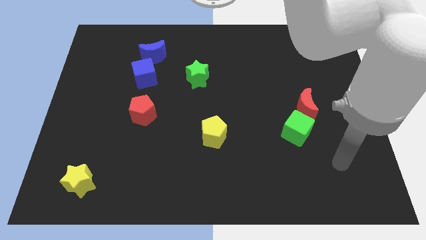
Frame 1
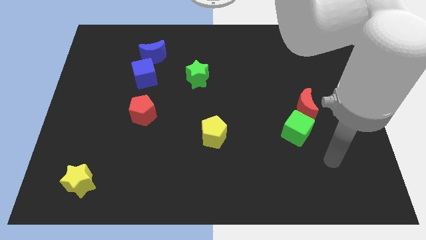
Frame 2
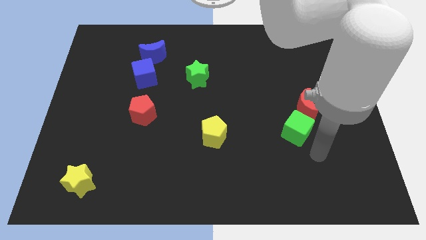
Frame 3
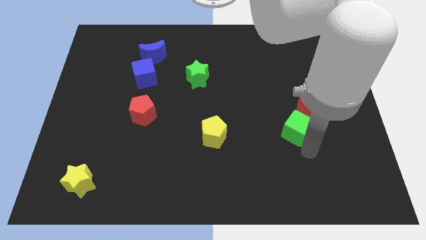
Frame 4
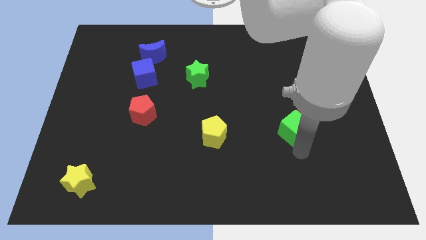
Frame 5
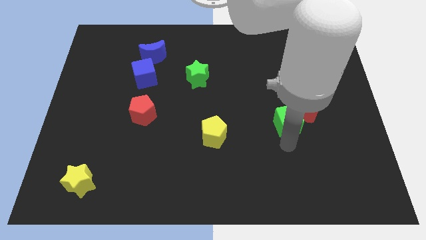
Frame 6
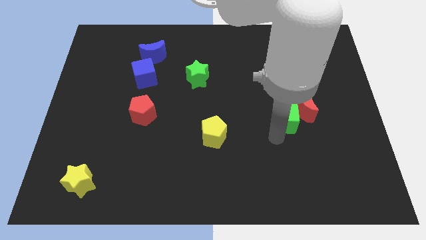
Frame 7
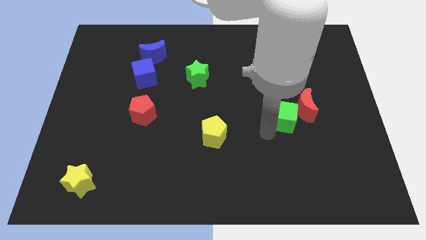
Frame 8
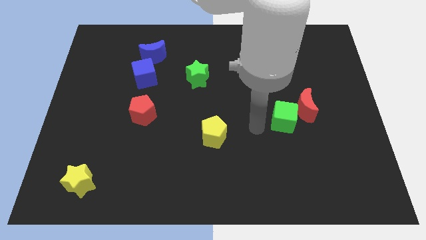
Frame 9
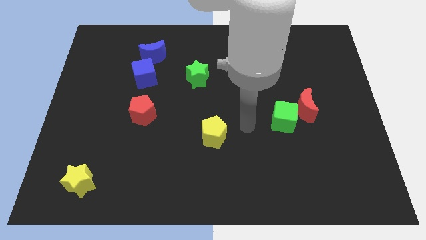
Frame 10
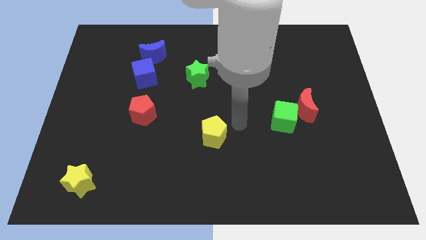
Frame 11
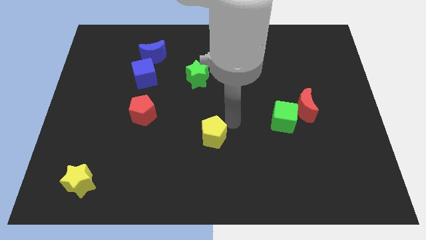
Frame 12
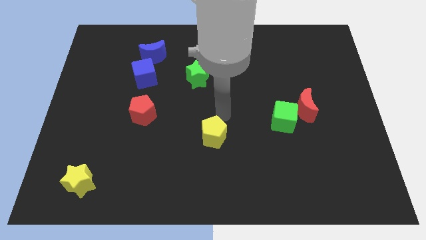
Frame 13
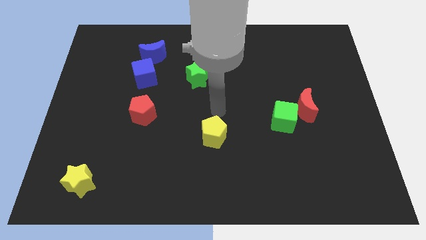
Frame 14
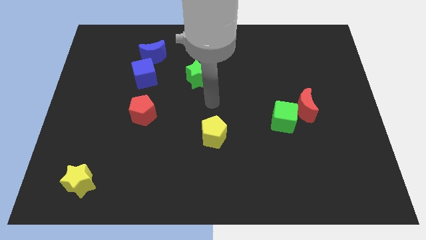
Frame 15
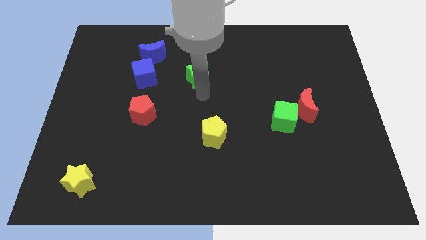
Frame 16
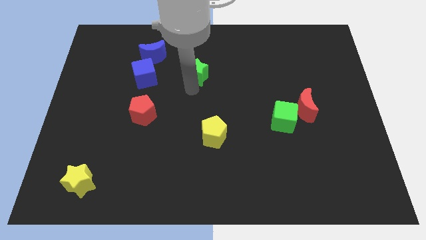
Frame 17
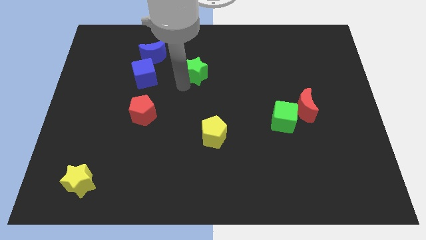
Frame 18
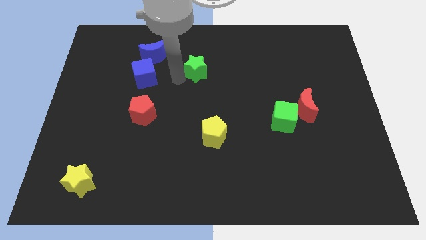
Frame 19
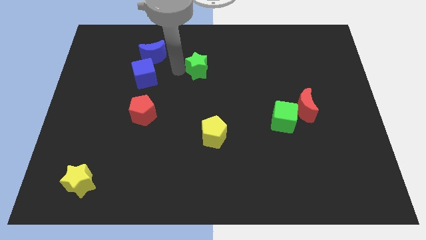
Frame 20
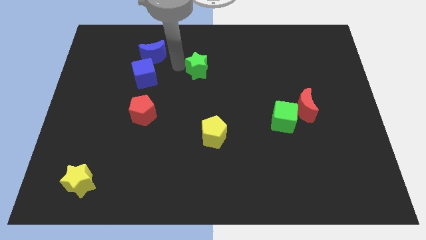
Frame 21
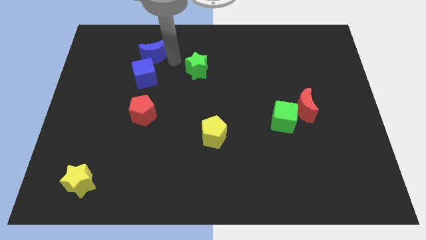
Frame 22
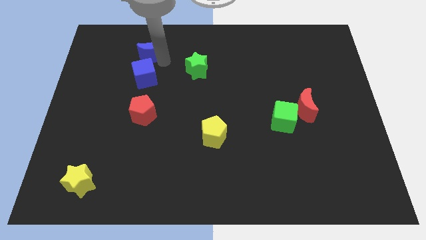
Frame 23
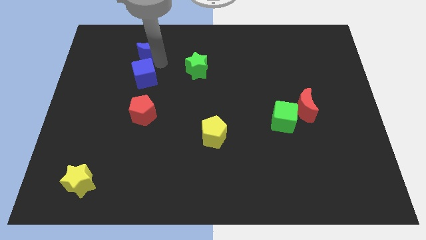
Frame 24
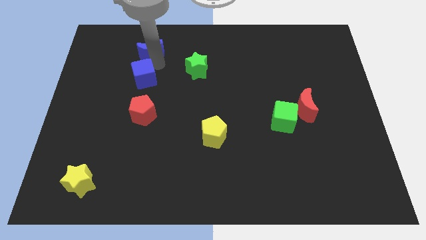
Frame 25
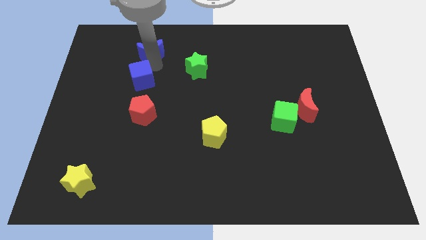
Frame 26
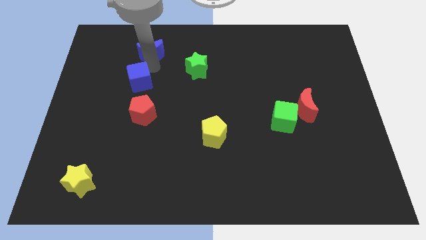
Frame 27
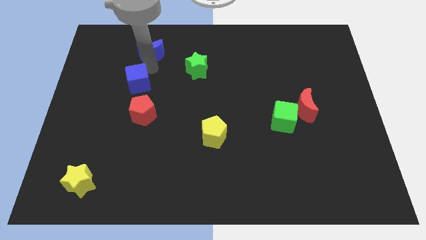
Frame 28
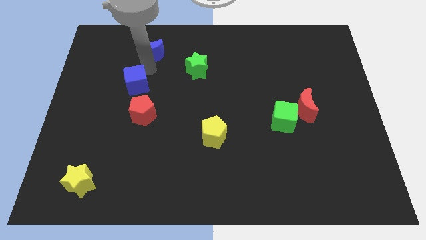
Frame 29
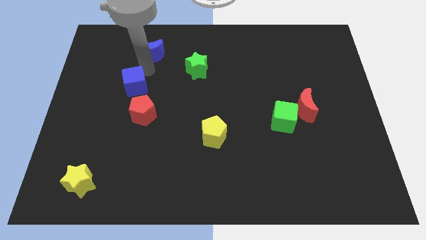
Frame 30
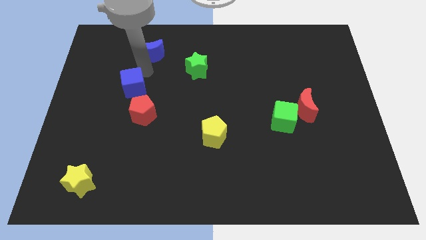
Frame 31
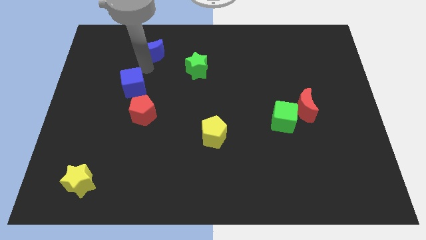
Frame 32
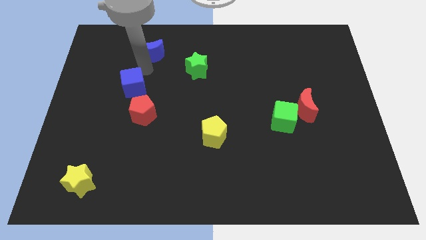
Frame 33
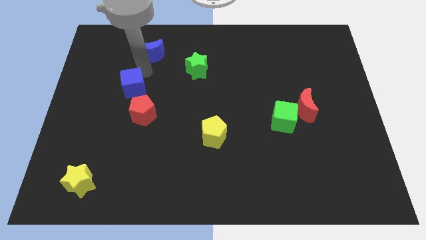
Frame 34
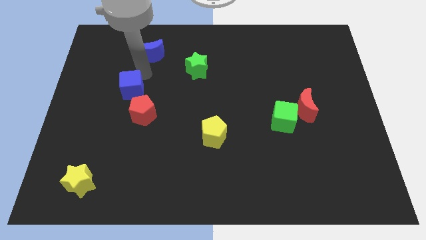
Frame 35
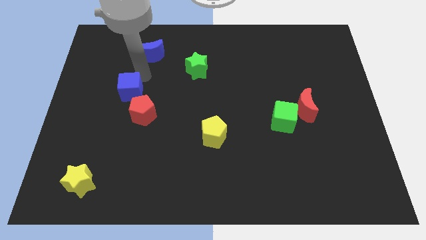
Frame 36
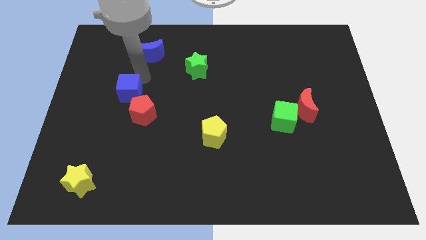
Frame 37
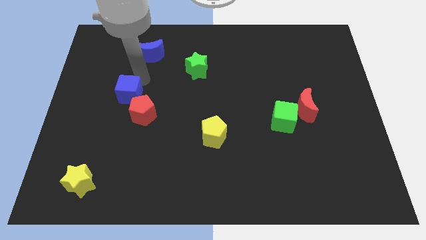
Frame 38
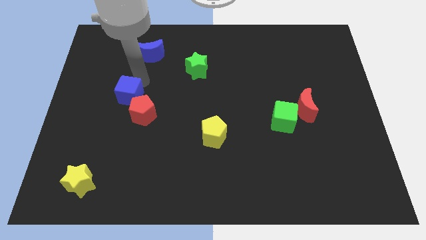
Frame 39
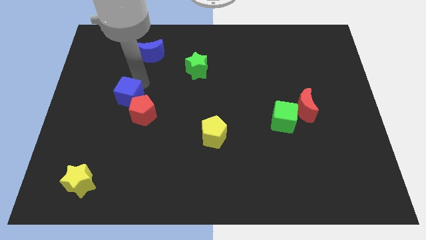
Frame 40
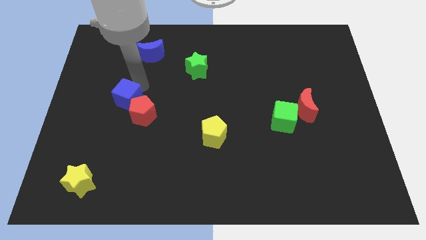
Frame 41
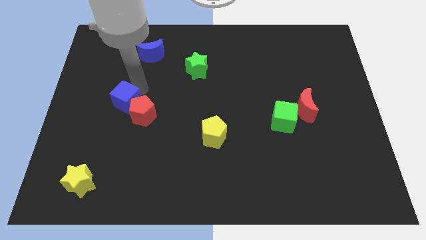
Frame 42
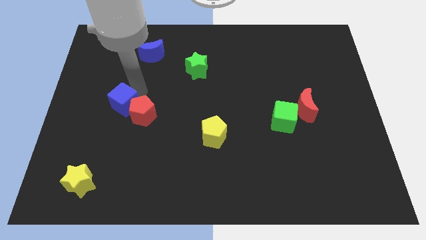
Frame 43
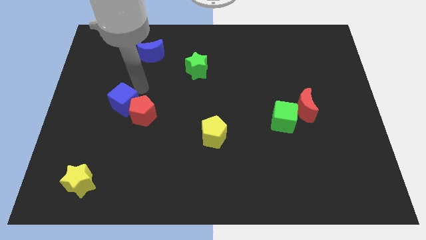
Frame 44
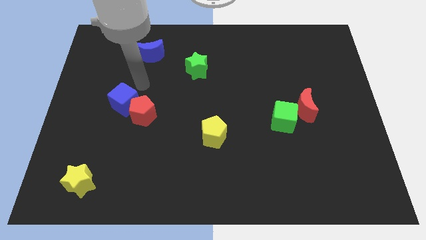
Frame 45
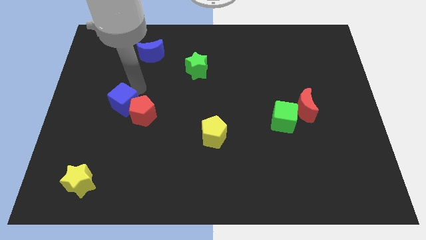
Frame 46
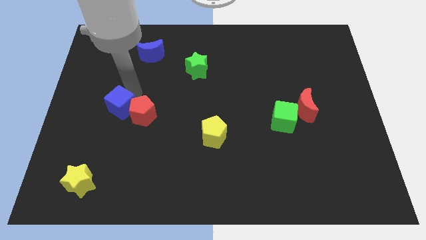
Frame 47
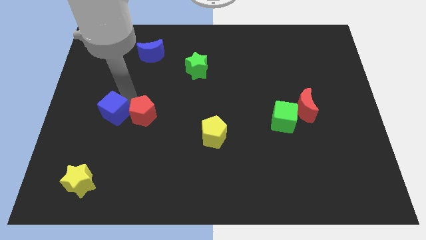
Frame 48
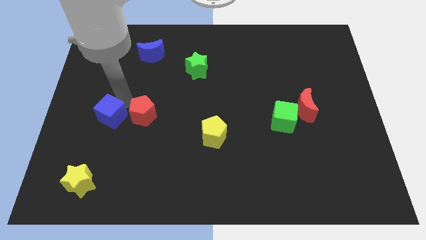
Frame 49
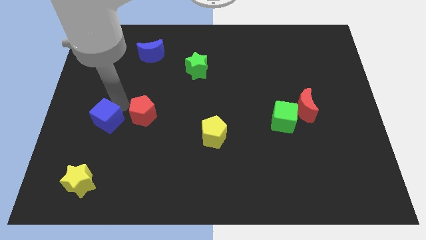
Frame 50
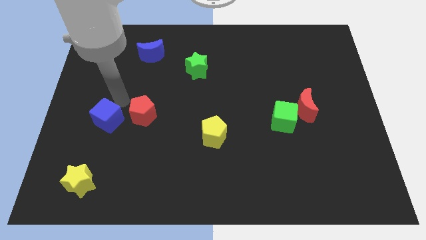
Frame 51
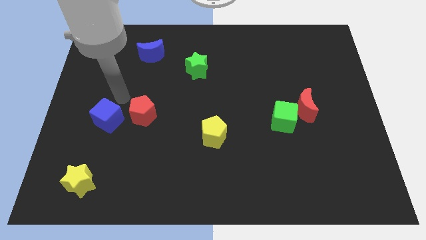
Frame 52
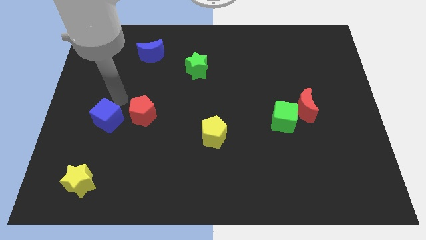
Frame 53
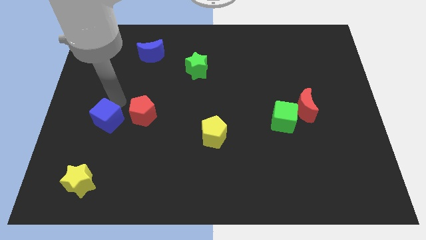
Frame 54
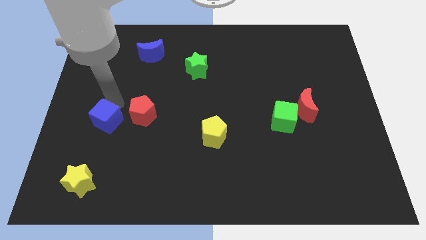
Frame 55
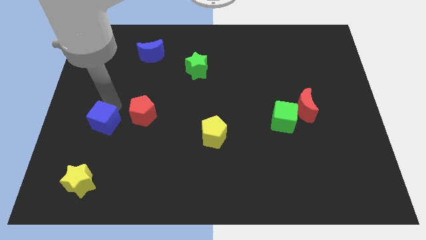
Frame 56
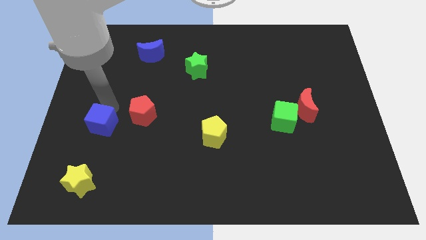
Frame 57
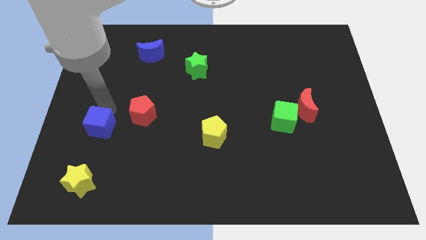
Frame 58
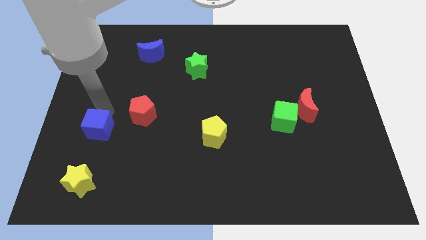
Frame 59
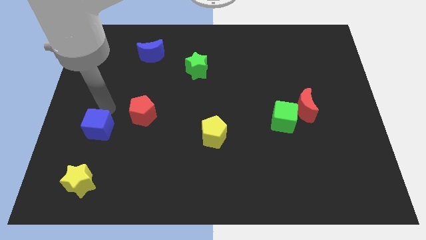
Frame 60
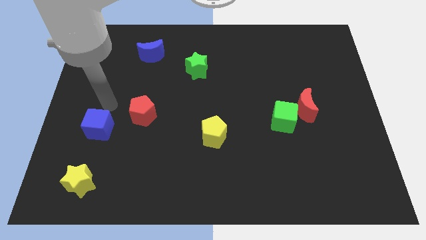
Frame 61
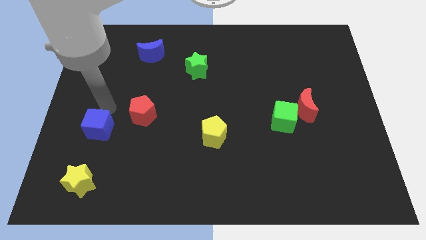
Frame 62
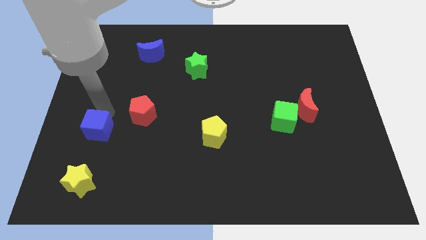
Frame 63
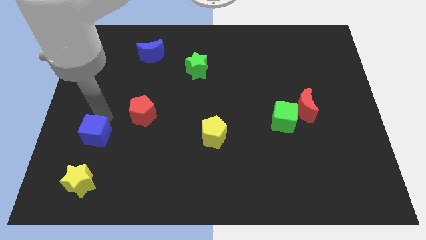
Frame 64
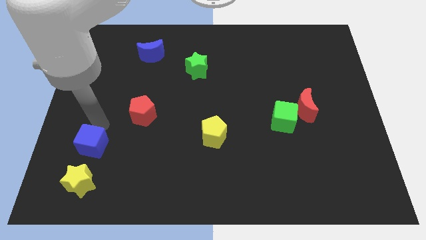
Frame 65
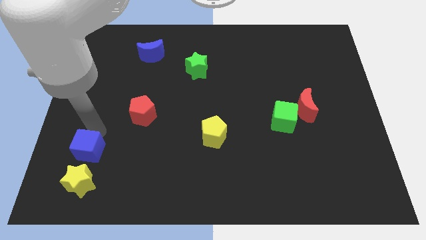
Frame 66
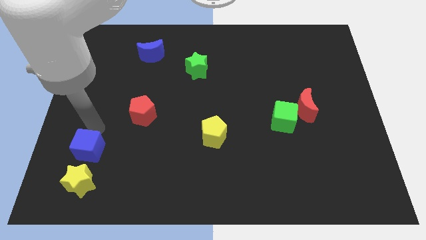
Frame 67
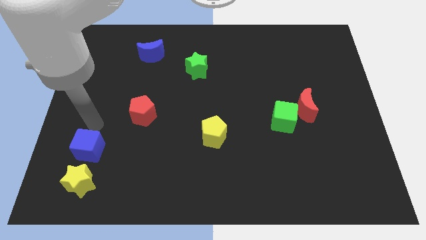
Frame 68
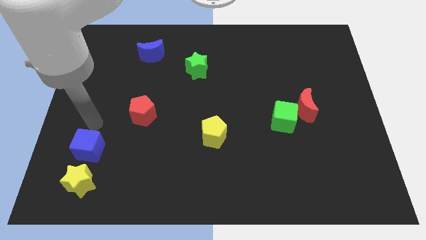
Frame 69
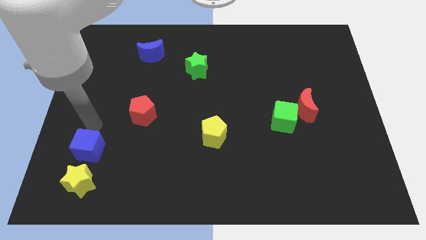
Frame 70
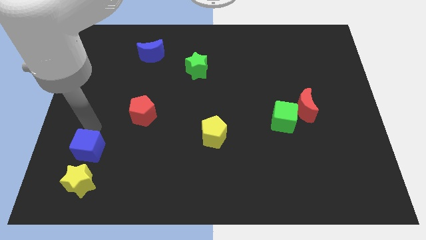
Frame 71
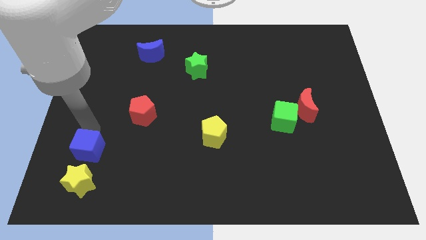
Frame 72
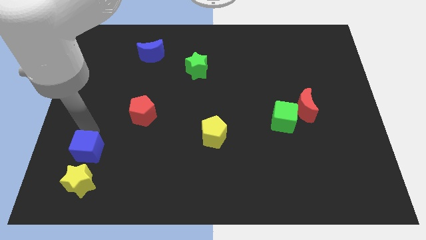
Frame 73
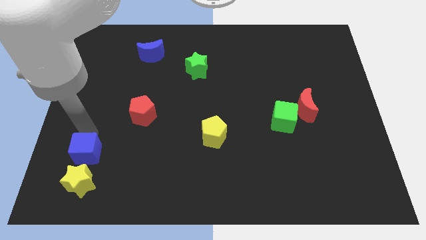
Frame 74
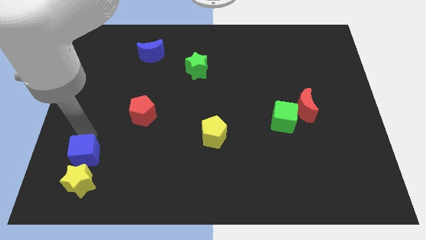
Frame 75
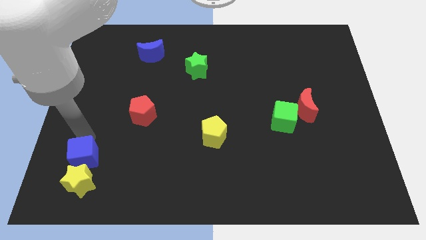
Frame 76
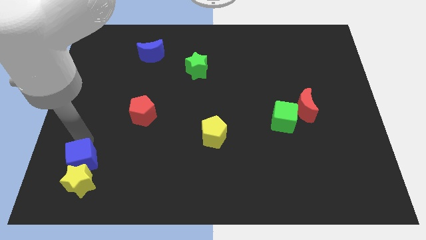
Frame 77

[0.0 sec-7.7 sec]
push the blue cube next to the yellow star
